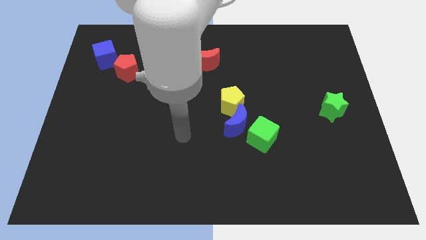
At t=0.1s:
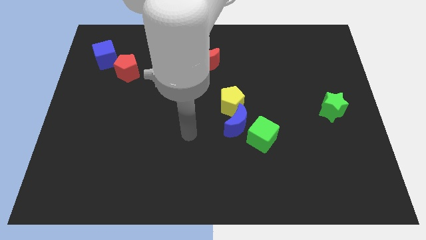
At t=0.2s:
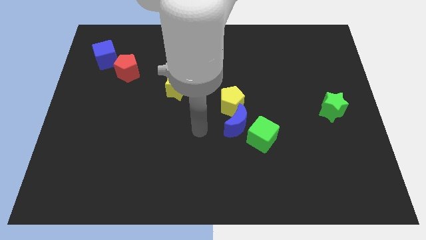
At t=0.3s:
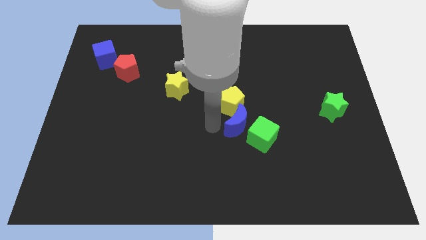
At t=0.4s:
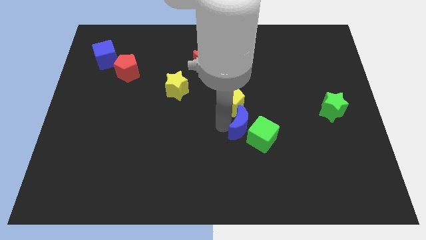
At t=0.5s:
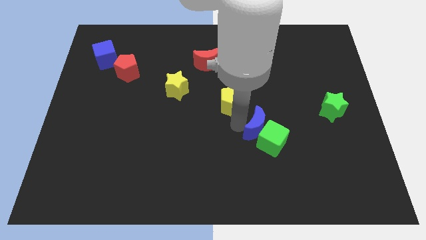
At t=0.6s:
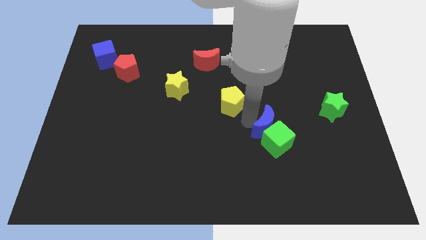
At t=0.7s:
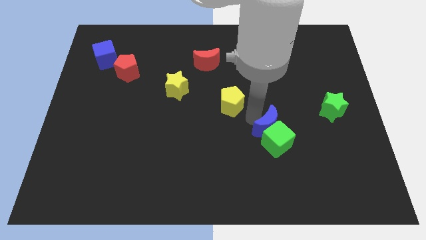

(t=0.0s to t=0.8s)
pull the yellow pentagon apart from the blue moon

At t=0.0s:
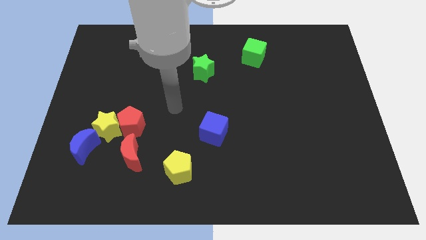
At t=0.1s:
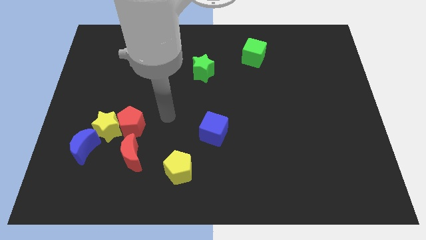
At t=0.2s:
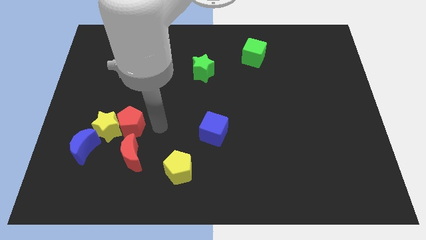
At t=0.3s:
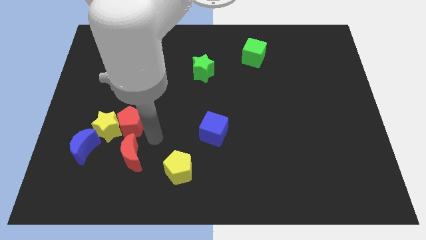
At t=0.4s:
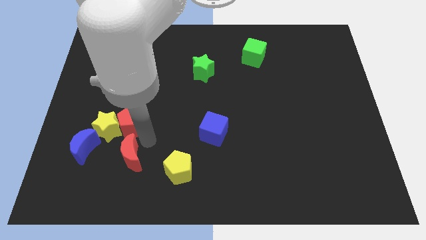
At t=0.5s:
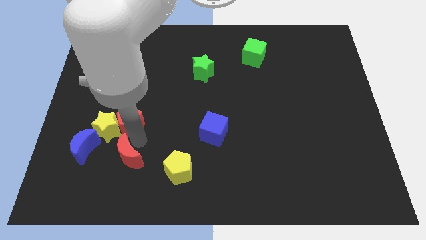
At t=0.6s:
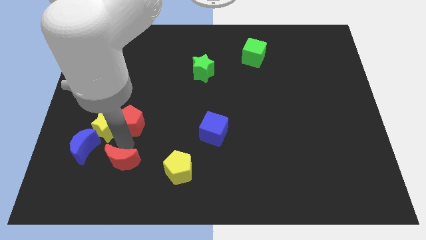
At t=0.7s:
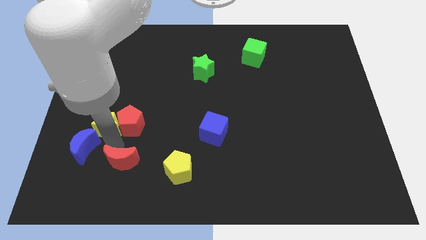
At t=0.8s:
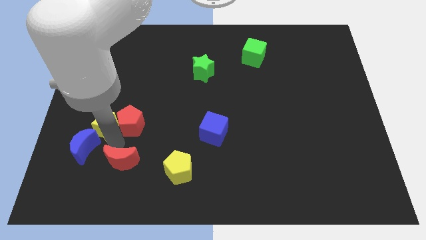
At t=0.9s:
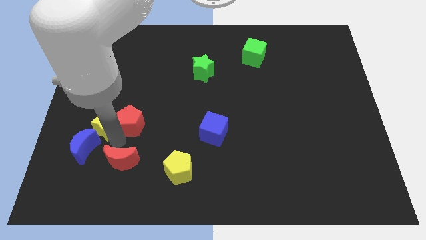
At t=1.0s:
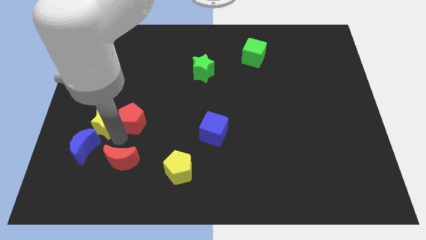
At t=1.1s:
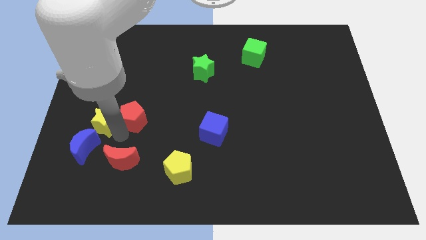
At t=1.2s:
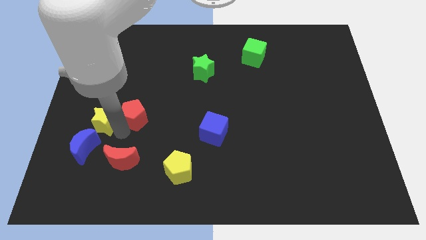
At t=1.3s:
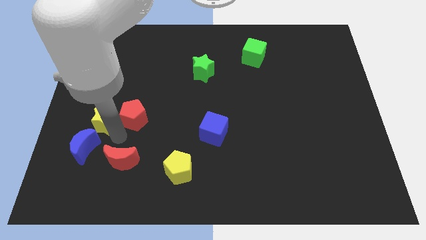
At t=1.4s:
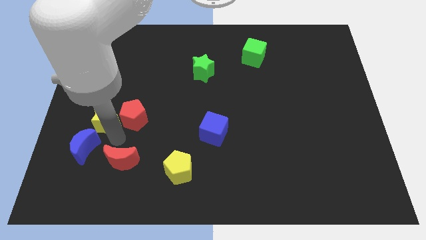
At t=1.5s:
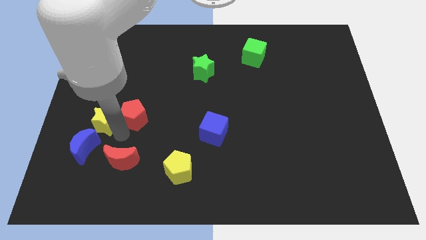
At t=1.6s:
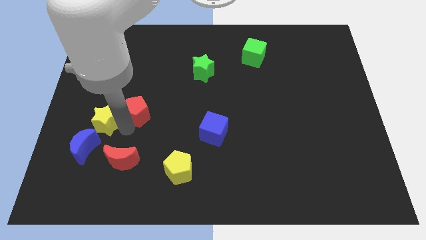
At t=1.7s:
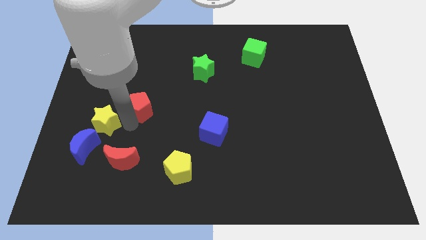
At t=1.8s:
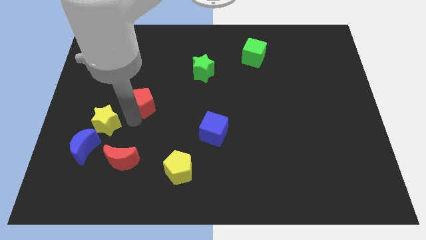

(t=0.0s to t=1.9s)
pull the red pentagon apart from the yellow star and red moon

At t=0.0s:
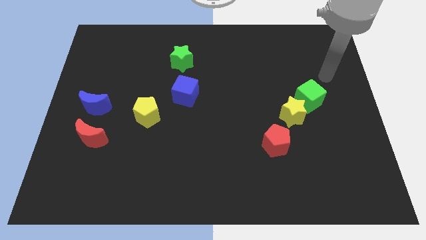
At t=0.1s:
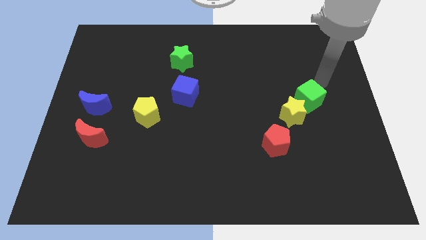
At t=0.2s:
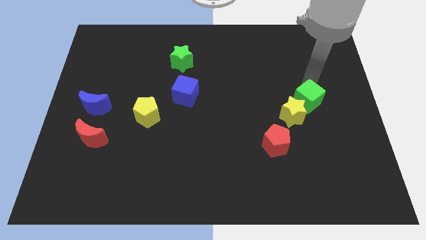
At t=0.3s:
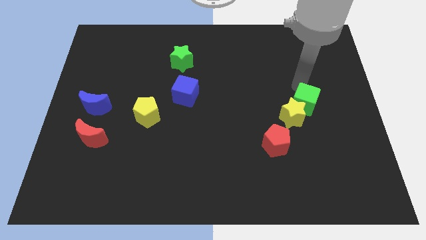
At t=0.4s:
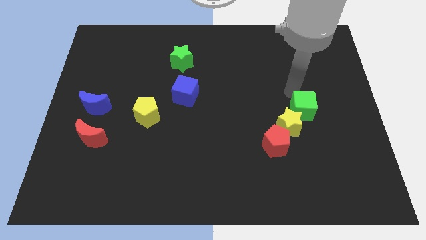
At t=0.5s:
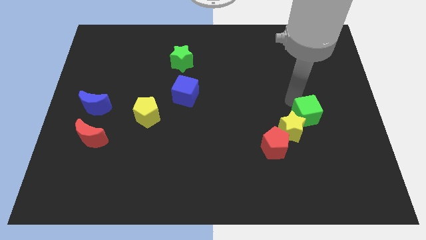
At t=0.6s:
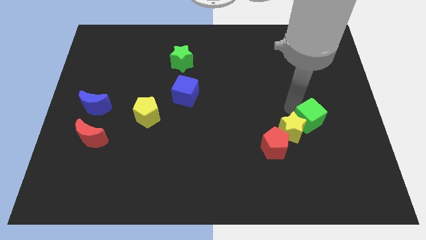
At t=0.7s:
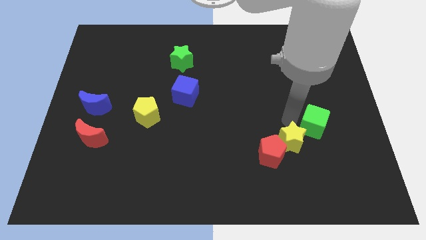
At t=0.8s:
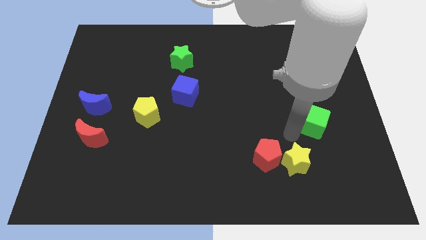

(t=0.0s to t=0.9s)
pull the green cube apart from the yellow star

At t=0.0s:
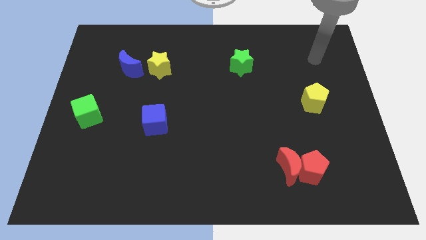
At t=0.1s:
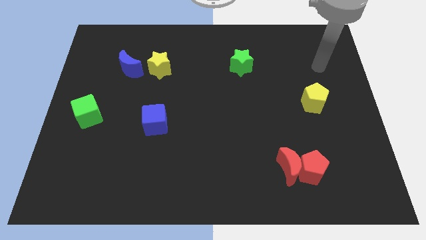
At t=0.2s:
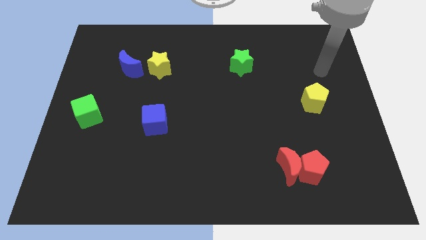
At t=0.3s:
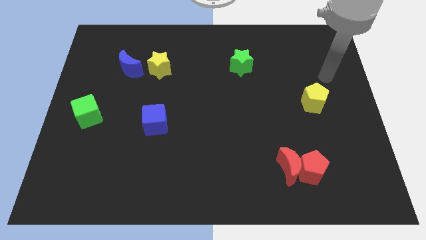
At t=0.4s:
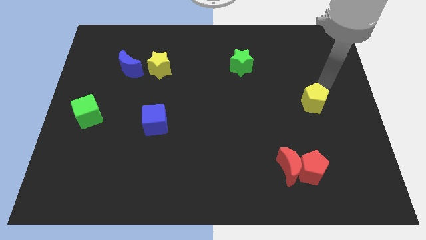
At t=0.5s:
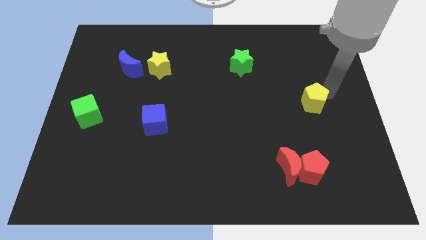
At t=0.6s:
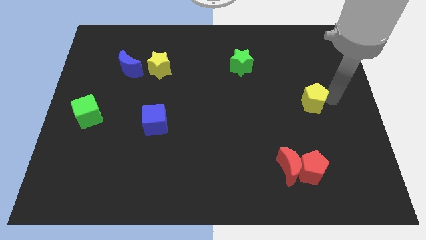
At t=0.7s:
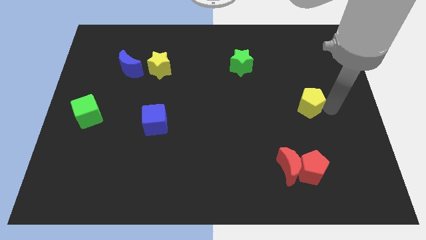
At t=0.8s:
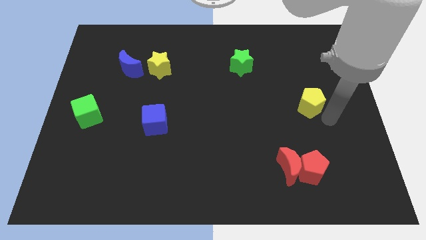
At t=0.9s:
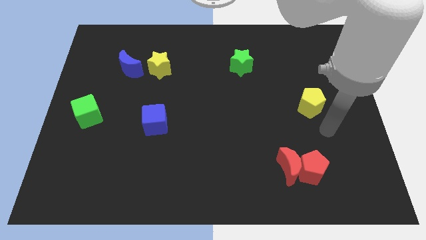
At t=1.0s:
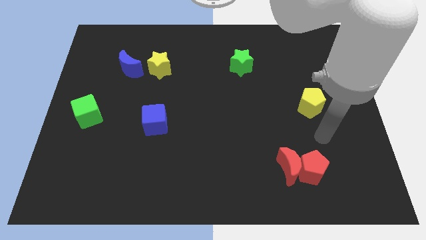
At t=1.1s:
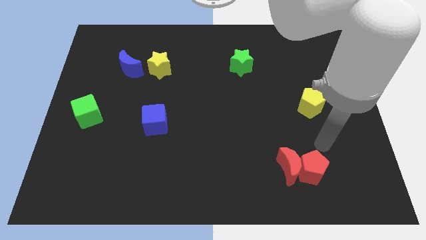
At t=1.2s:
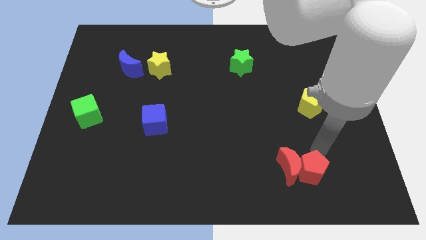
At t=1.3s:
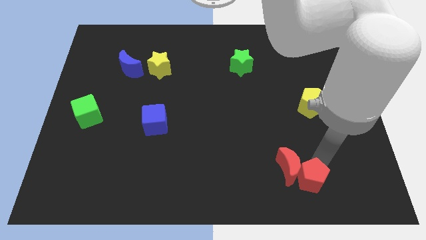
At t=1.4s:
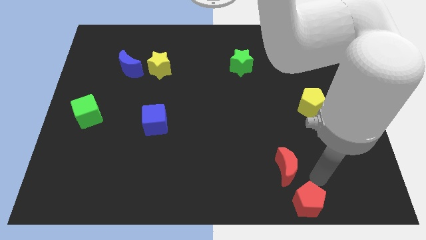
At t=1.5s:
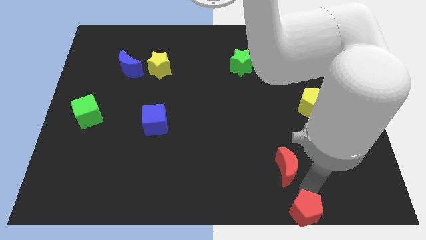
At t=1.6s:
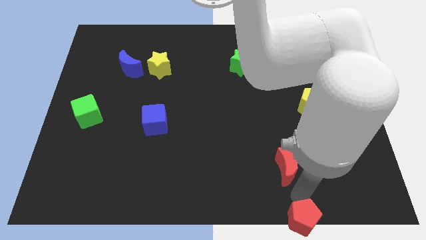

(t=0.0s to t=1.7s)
move the red moon away from the red pentagon

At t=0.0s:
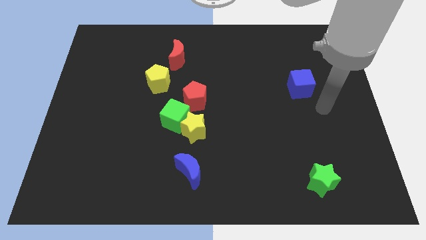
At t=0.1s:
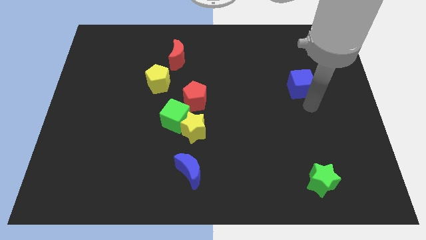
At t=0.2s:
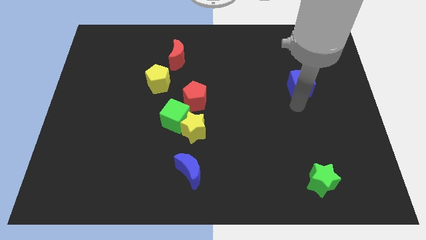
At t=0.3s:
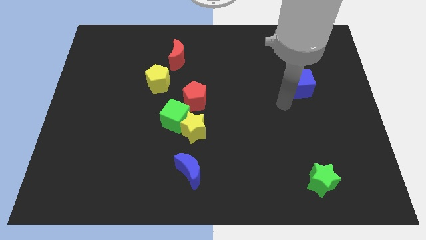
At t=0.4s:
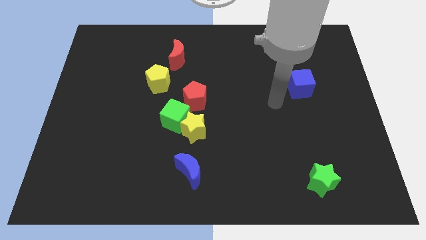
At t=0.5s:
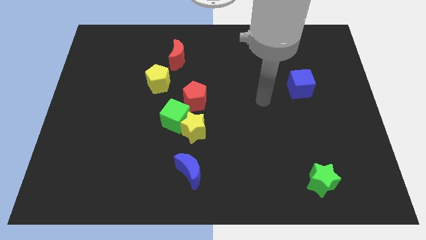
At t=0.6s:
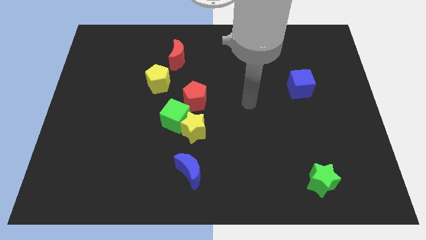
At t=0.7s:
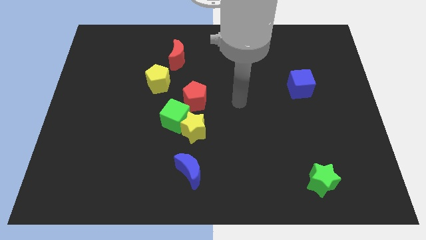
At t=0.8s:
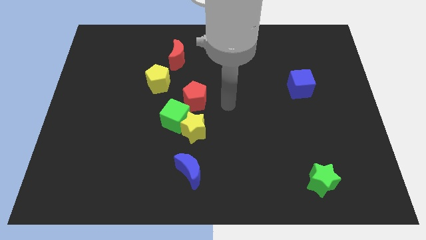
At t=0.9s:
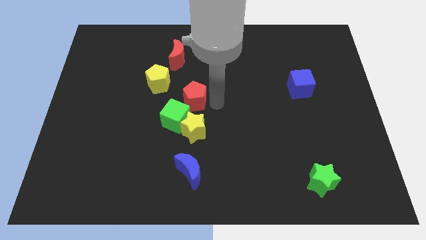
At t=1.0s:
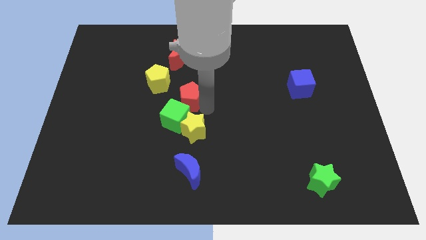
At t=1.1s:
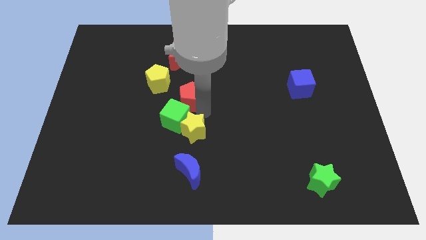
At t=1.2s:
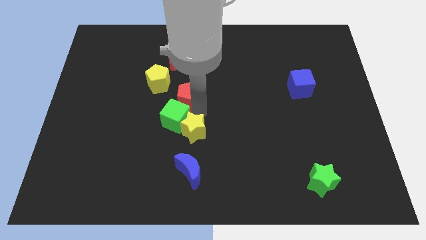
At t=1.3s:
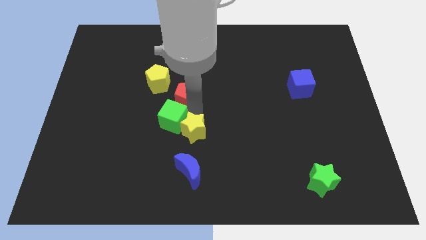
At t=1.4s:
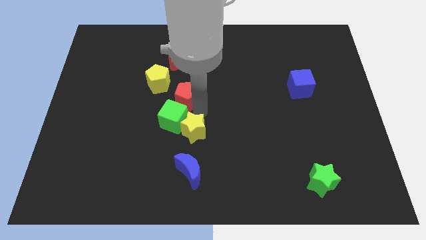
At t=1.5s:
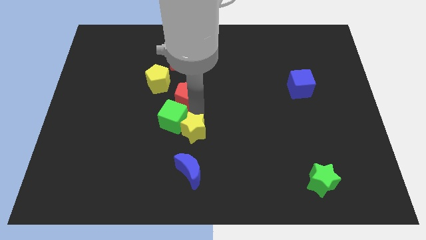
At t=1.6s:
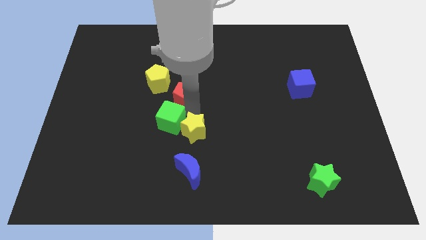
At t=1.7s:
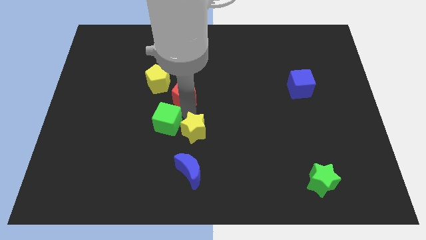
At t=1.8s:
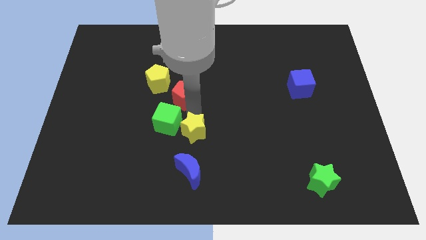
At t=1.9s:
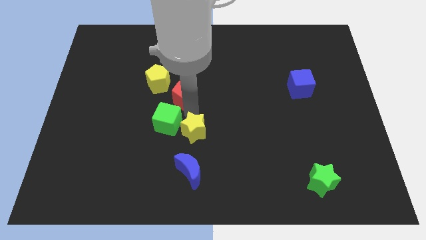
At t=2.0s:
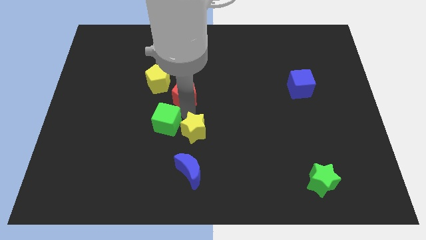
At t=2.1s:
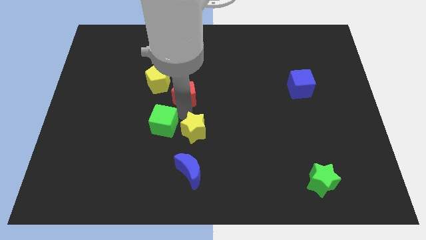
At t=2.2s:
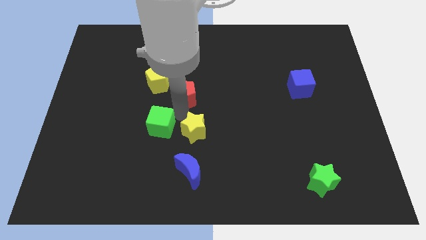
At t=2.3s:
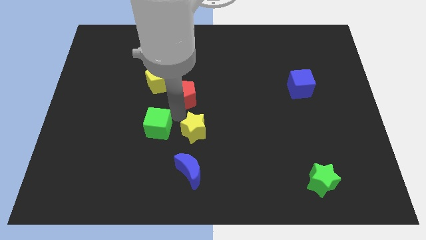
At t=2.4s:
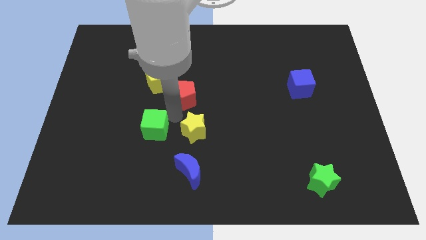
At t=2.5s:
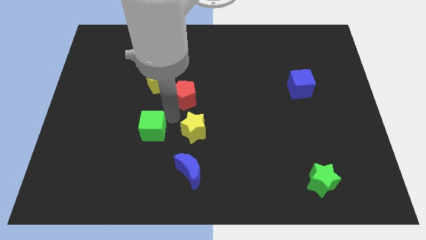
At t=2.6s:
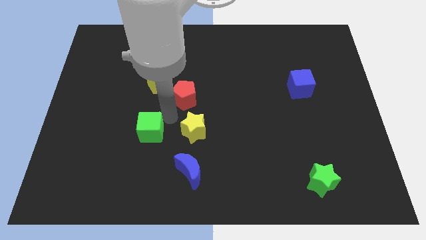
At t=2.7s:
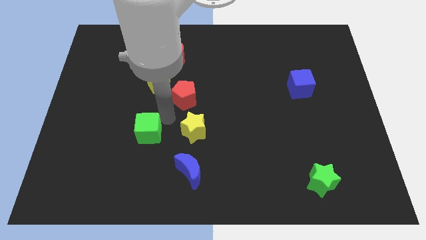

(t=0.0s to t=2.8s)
separate the green cube from the yellow star and red pentagon

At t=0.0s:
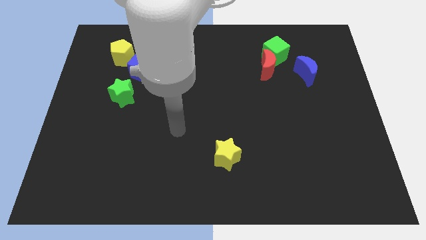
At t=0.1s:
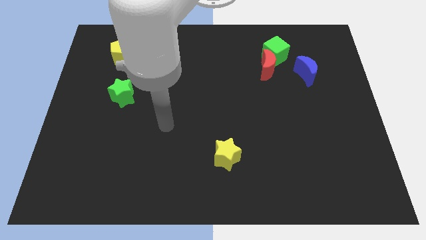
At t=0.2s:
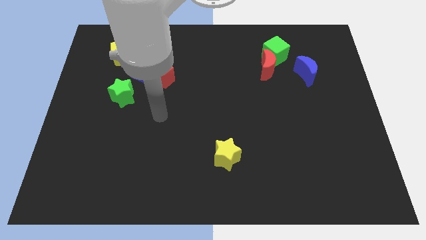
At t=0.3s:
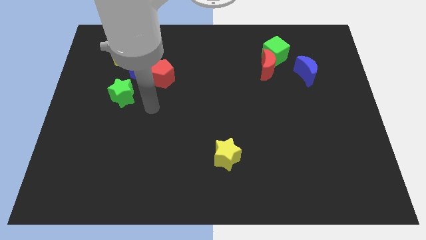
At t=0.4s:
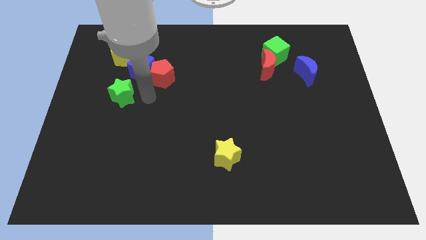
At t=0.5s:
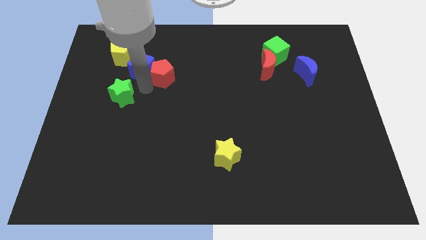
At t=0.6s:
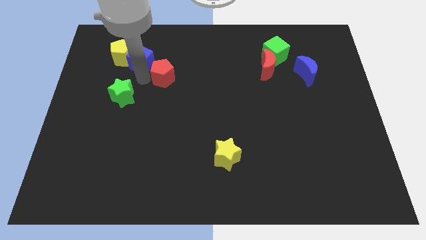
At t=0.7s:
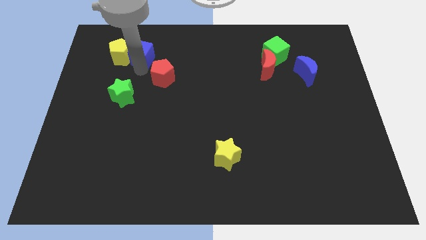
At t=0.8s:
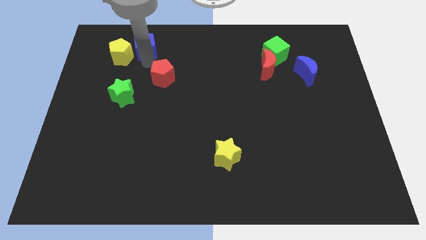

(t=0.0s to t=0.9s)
move the red pentagon away from the blue cube

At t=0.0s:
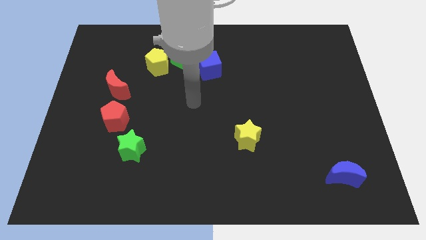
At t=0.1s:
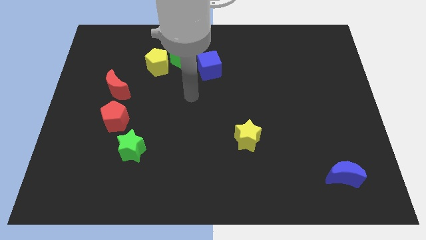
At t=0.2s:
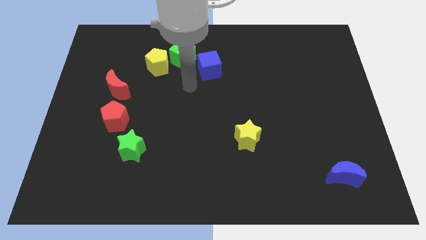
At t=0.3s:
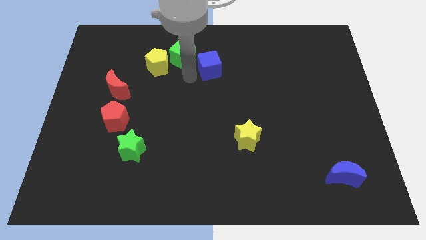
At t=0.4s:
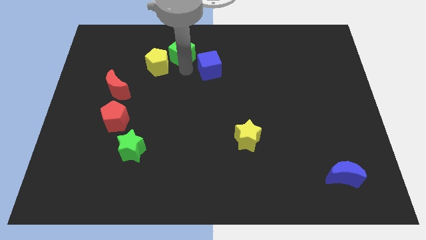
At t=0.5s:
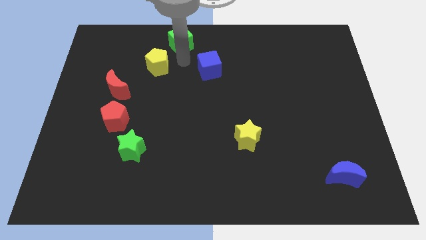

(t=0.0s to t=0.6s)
separate the yellow pentagon from the green cube
